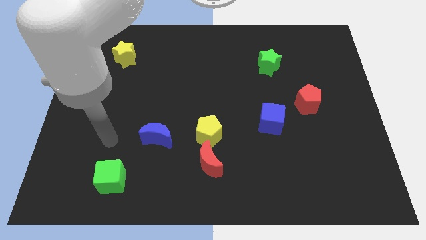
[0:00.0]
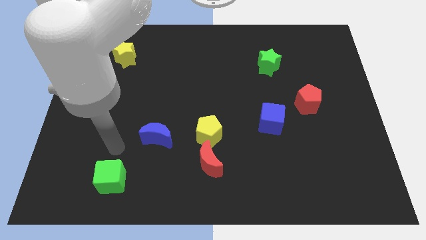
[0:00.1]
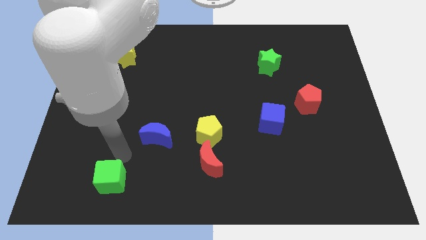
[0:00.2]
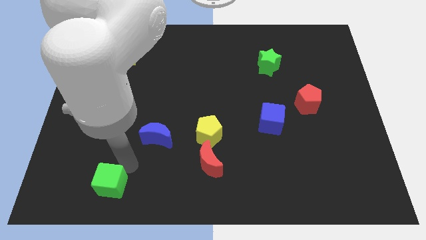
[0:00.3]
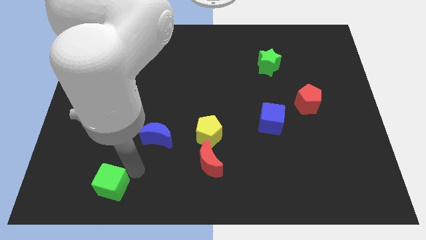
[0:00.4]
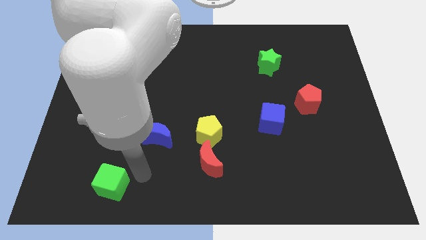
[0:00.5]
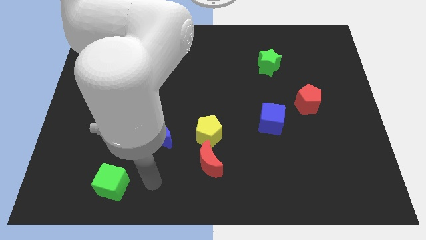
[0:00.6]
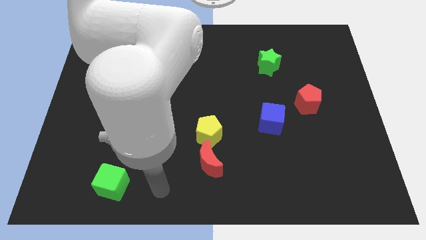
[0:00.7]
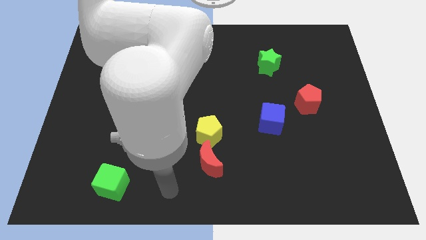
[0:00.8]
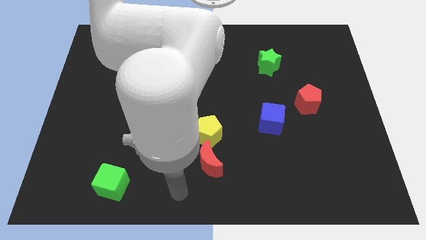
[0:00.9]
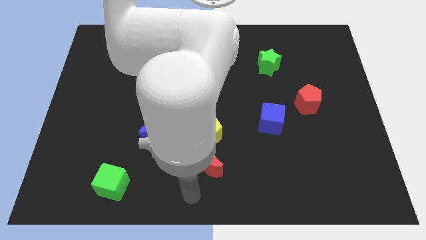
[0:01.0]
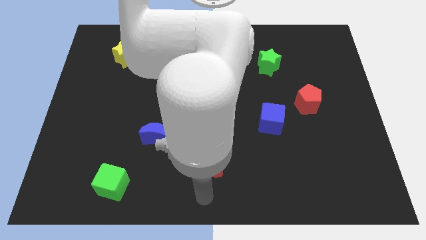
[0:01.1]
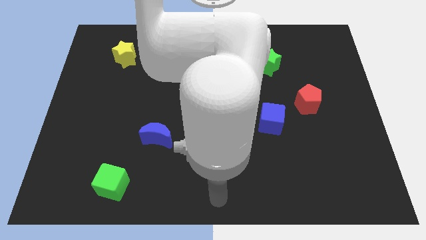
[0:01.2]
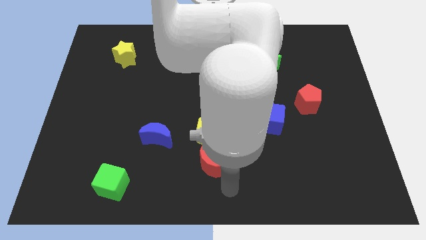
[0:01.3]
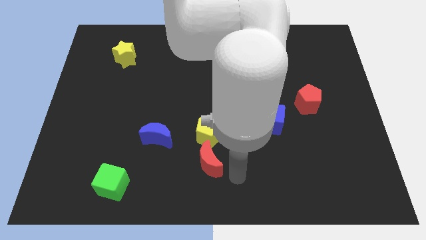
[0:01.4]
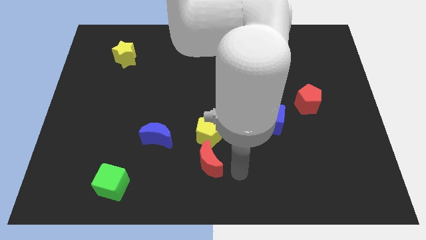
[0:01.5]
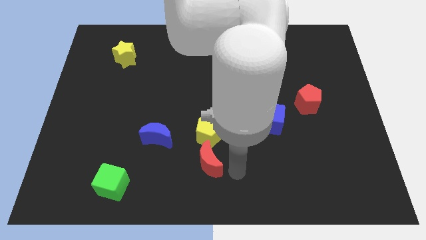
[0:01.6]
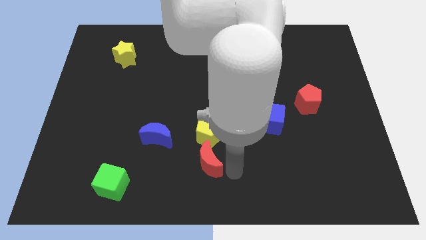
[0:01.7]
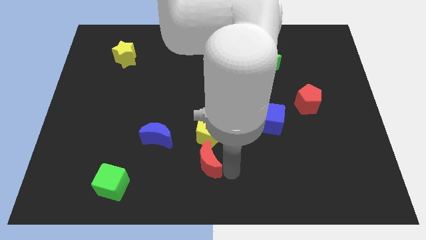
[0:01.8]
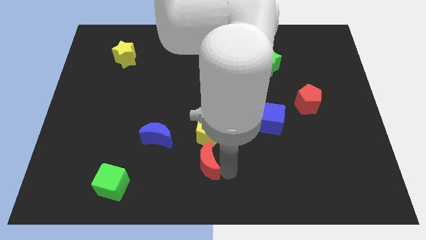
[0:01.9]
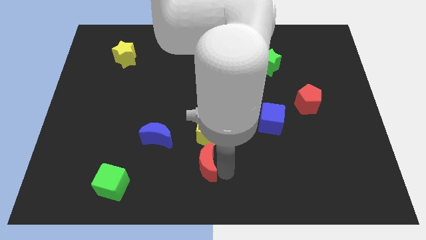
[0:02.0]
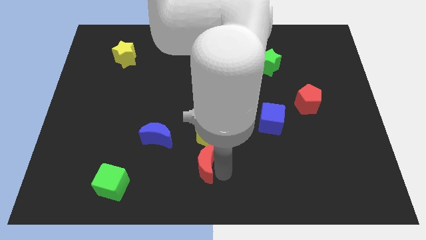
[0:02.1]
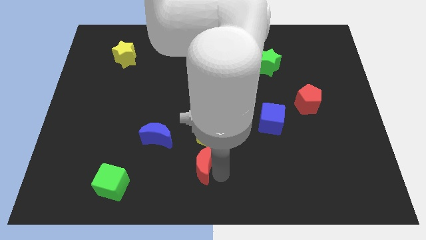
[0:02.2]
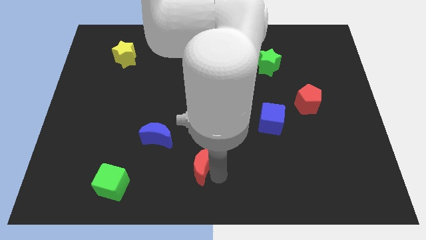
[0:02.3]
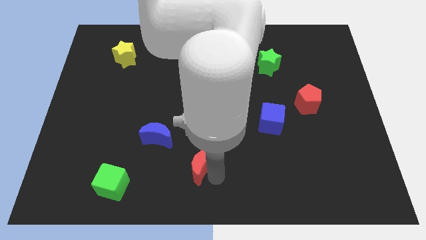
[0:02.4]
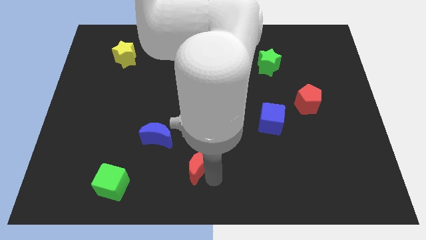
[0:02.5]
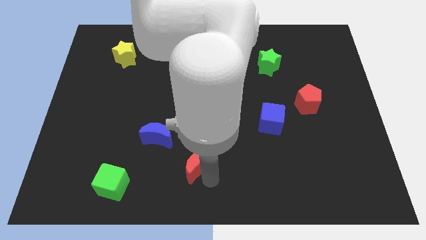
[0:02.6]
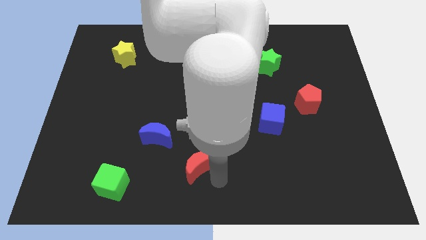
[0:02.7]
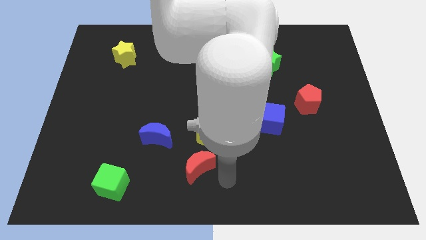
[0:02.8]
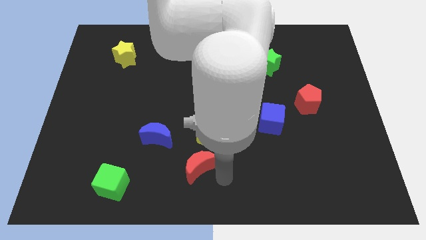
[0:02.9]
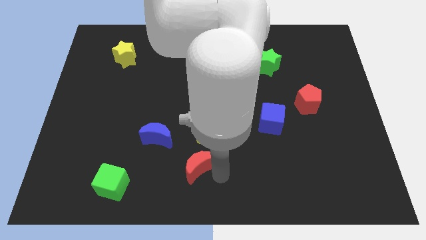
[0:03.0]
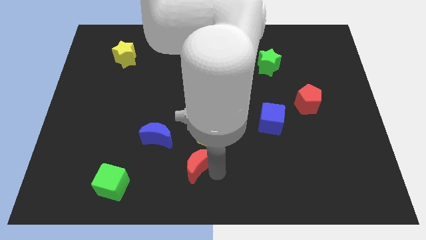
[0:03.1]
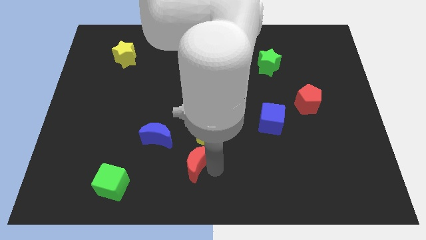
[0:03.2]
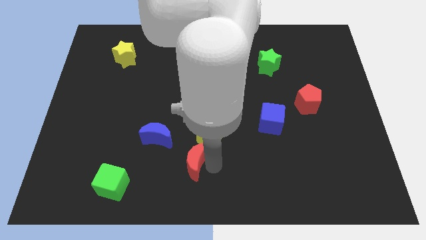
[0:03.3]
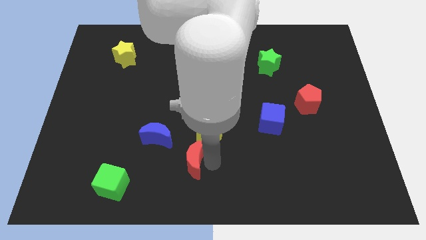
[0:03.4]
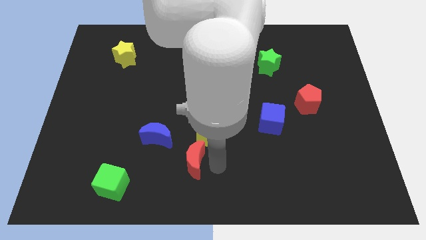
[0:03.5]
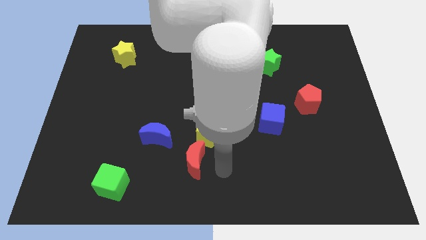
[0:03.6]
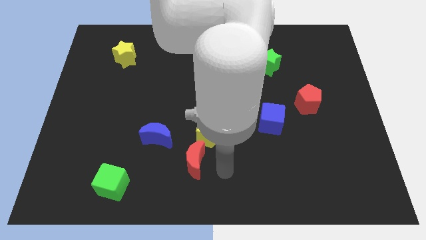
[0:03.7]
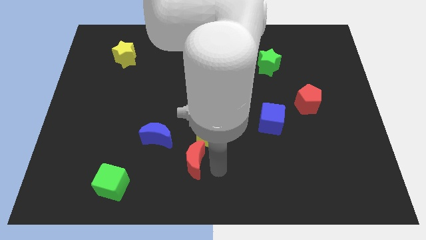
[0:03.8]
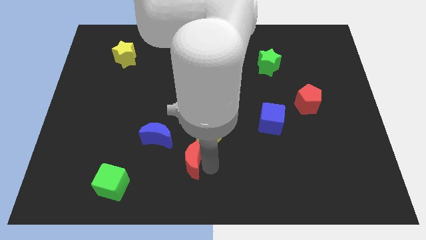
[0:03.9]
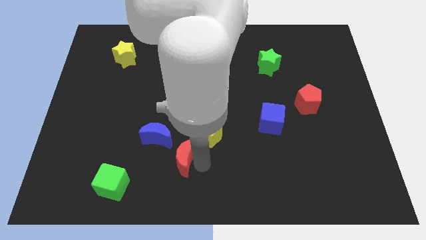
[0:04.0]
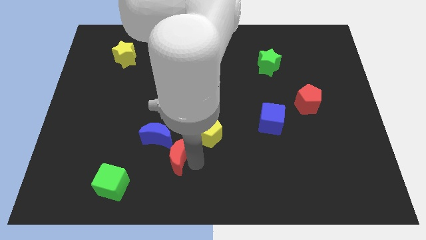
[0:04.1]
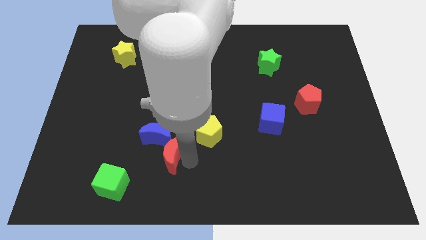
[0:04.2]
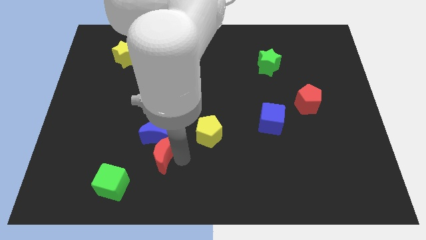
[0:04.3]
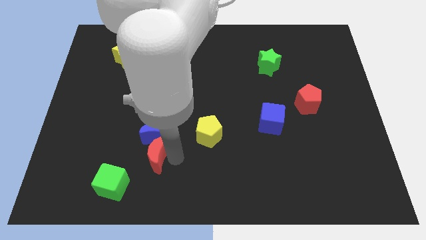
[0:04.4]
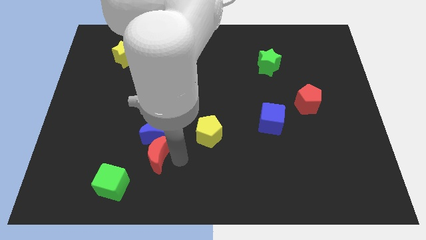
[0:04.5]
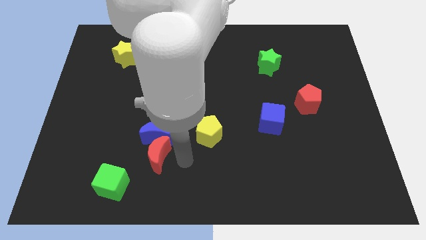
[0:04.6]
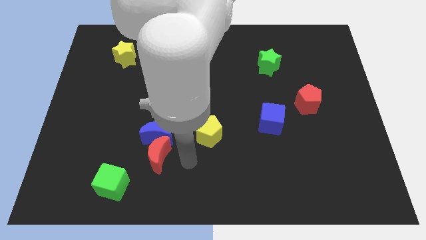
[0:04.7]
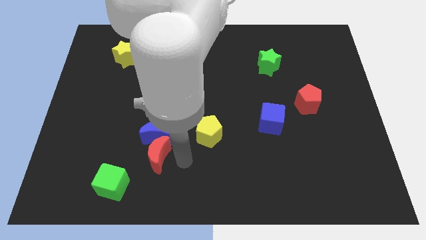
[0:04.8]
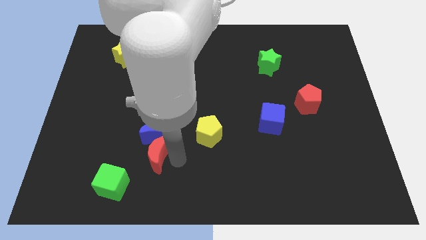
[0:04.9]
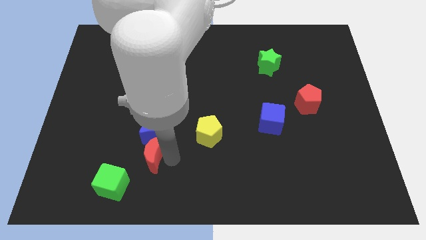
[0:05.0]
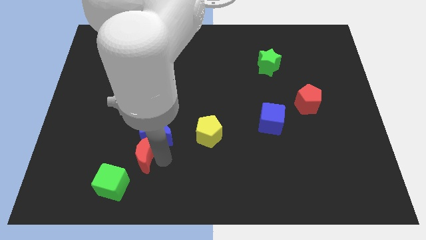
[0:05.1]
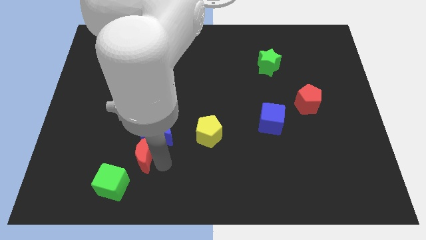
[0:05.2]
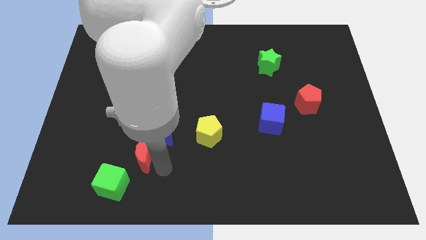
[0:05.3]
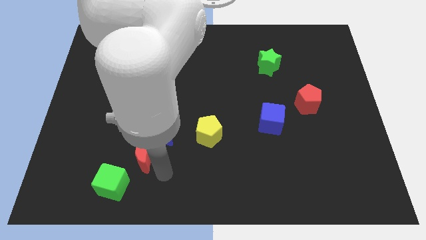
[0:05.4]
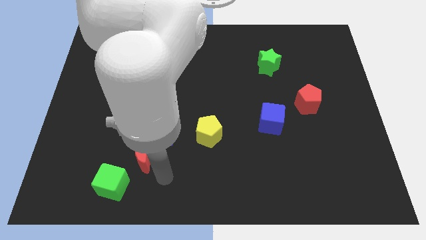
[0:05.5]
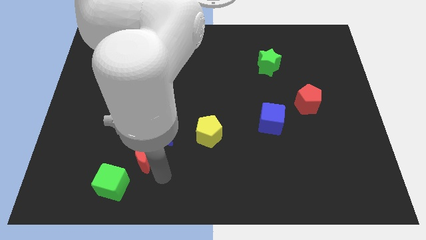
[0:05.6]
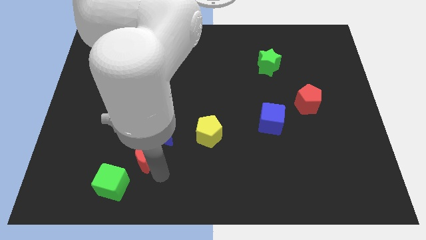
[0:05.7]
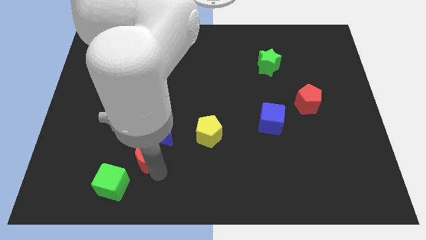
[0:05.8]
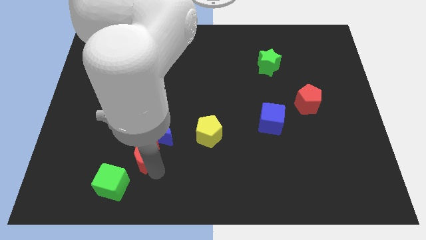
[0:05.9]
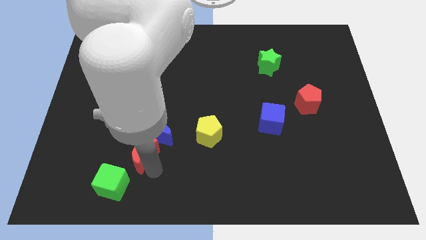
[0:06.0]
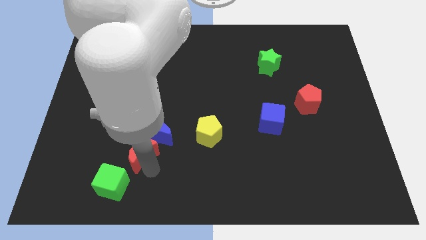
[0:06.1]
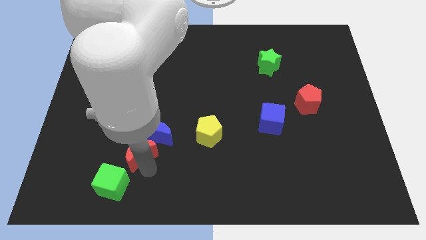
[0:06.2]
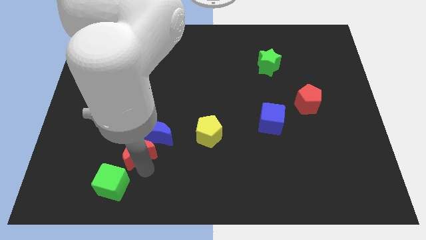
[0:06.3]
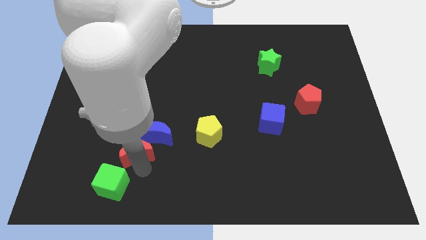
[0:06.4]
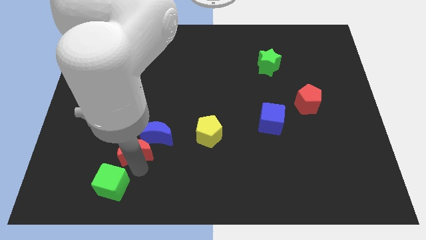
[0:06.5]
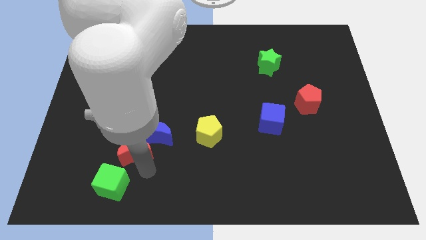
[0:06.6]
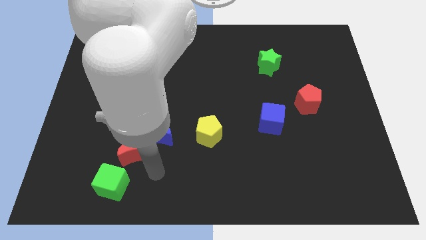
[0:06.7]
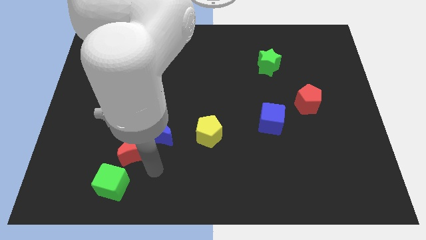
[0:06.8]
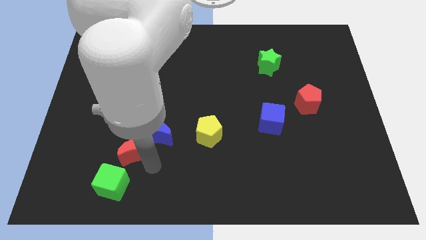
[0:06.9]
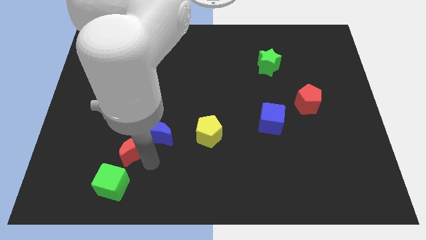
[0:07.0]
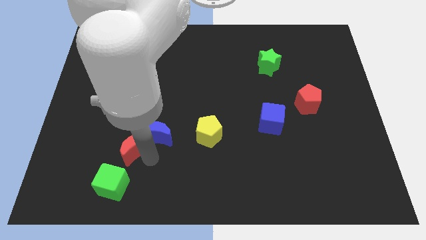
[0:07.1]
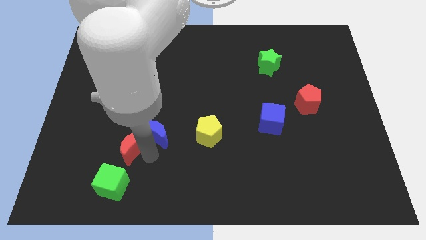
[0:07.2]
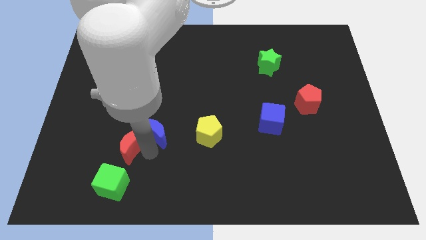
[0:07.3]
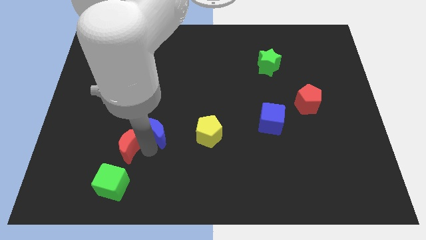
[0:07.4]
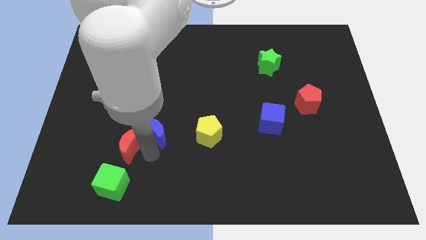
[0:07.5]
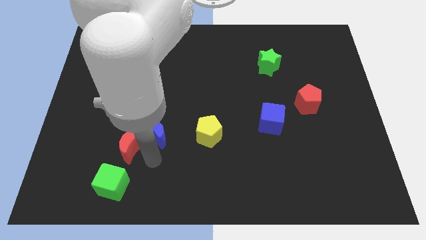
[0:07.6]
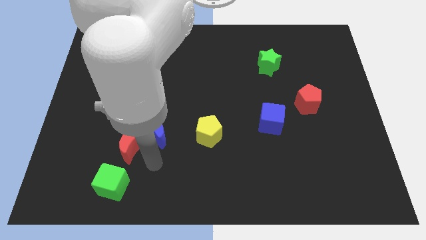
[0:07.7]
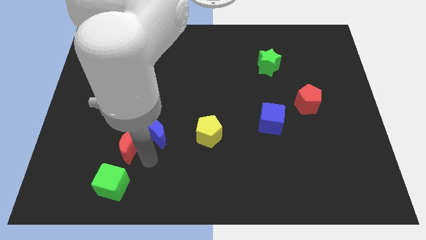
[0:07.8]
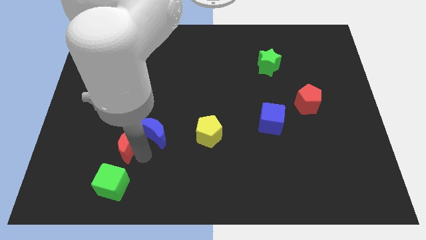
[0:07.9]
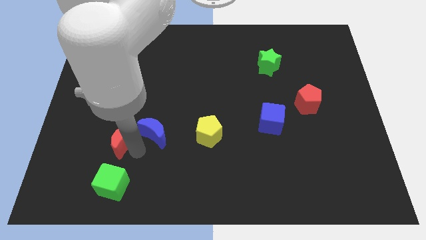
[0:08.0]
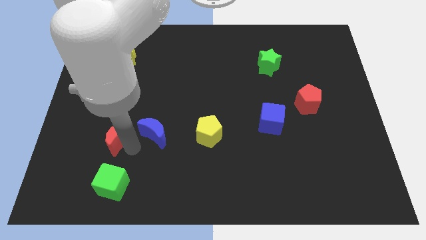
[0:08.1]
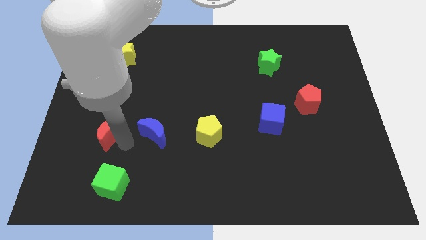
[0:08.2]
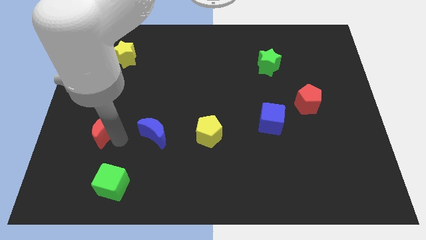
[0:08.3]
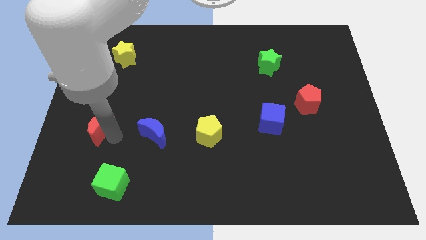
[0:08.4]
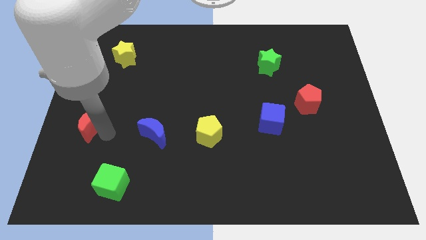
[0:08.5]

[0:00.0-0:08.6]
move the red moon to the center left
